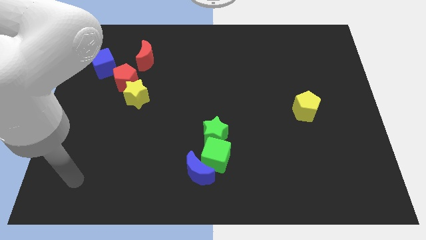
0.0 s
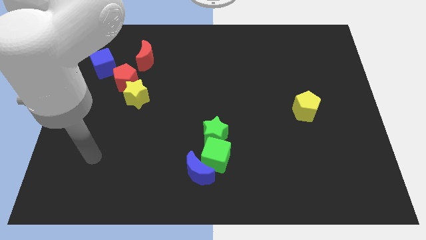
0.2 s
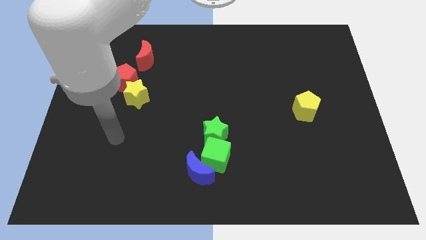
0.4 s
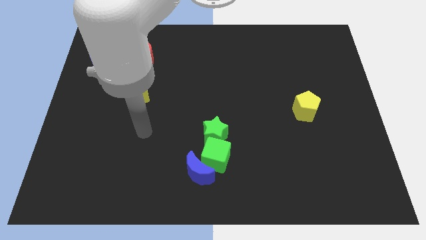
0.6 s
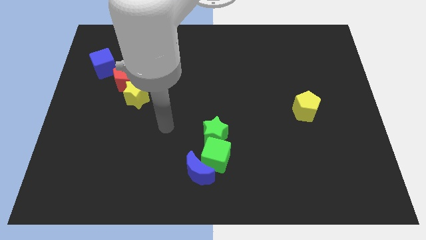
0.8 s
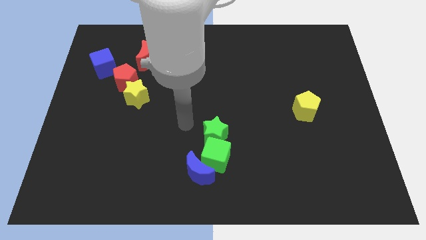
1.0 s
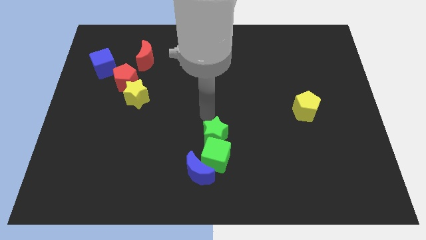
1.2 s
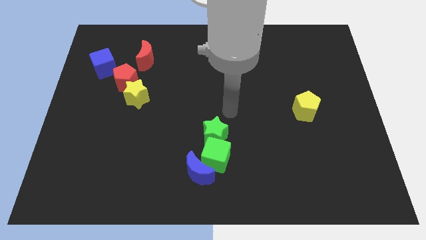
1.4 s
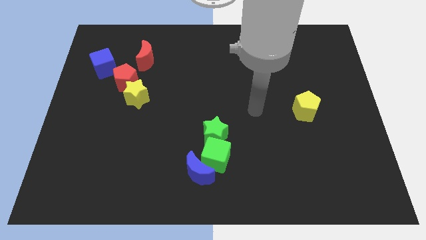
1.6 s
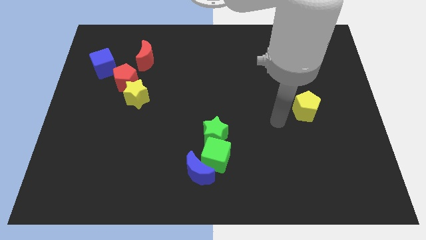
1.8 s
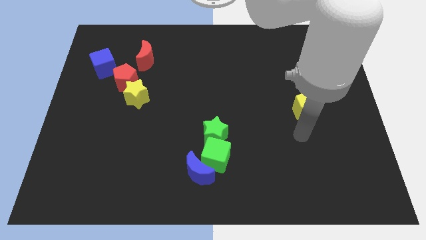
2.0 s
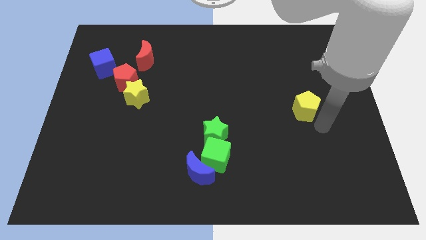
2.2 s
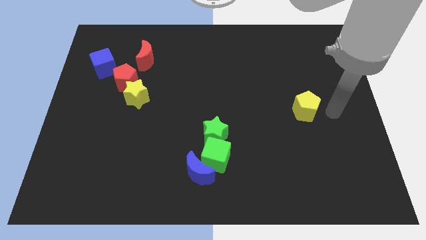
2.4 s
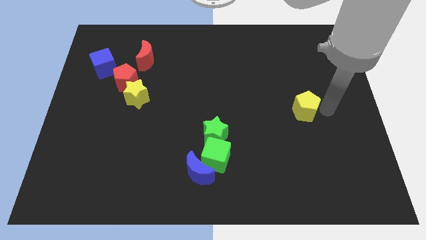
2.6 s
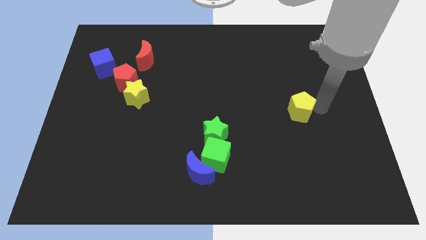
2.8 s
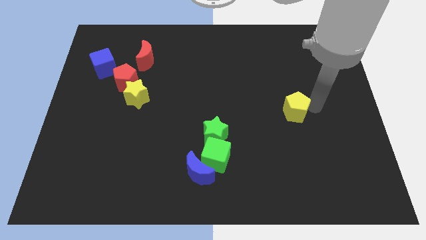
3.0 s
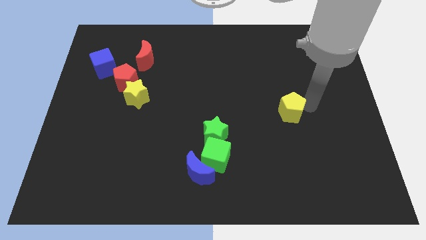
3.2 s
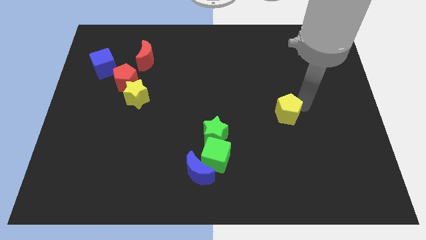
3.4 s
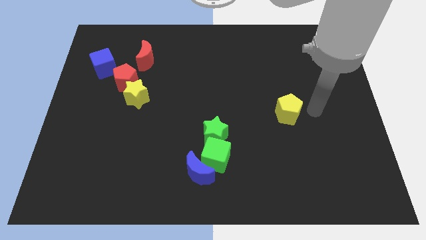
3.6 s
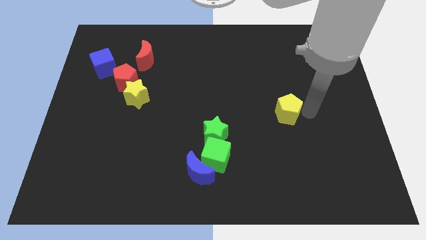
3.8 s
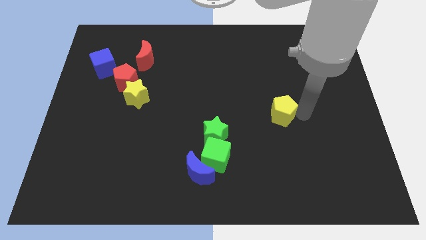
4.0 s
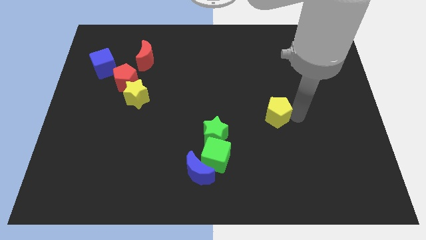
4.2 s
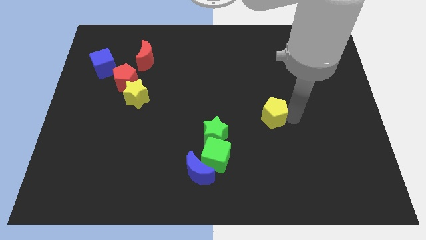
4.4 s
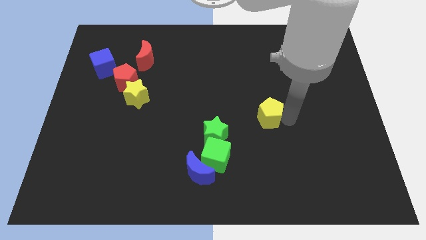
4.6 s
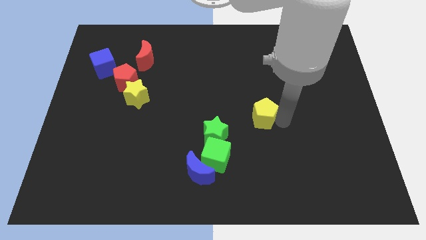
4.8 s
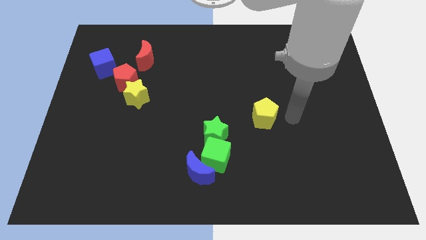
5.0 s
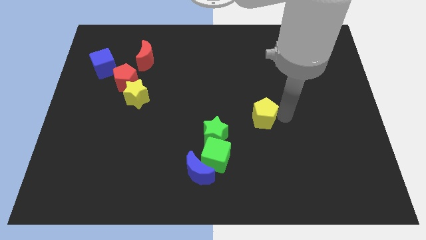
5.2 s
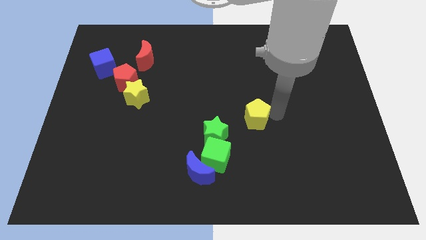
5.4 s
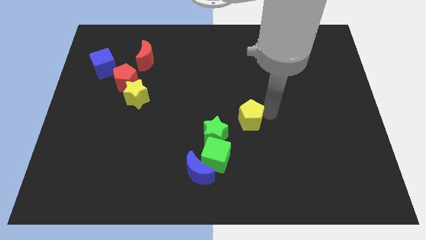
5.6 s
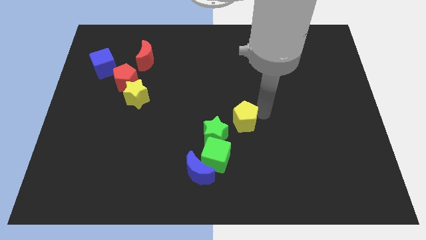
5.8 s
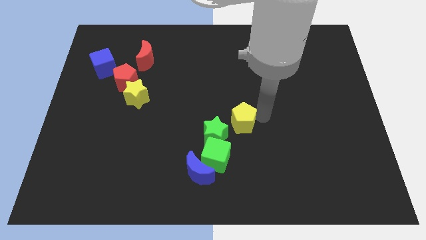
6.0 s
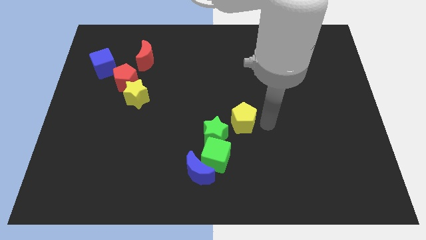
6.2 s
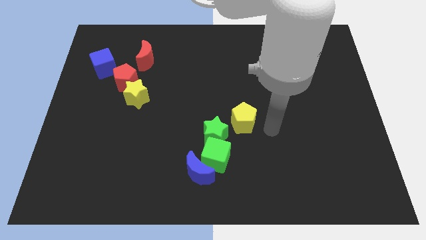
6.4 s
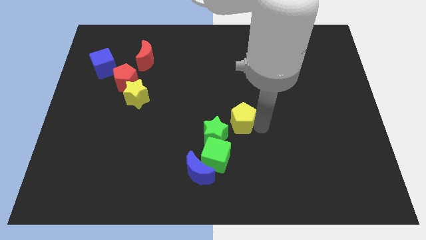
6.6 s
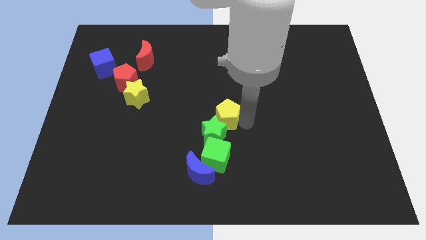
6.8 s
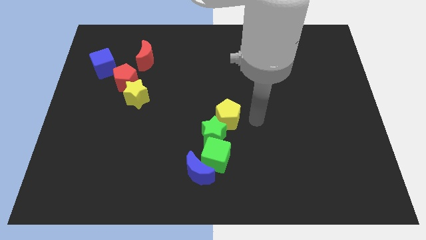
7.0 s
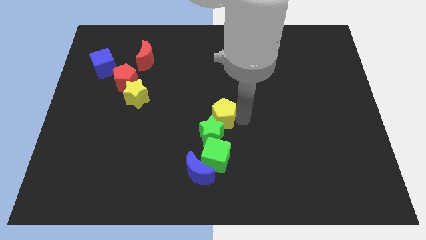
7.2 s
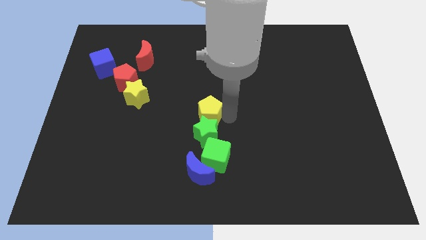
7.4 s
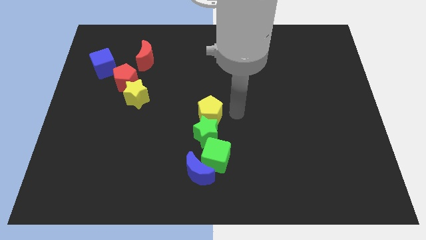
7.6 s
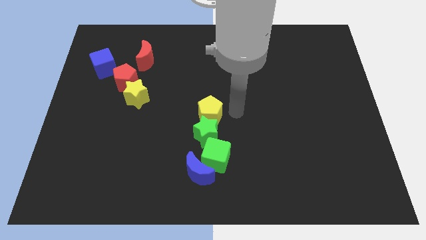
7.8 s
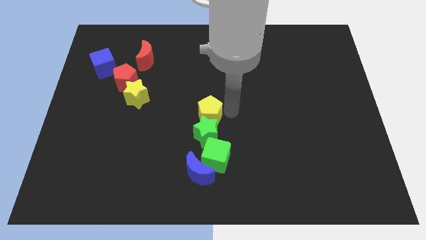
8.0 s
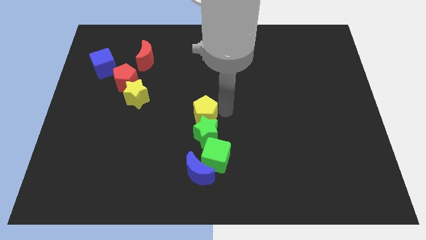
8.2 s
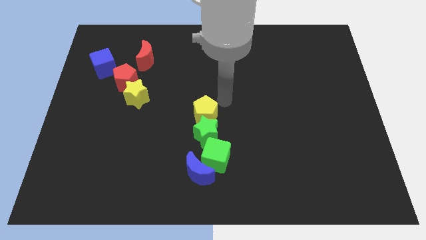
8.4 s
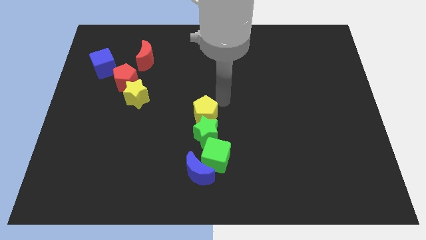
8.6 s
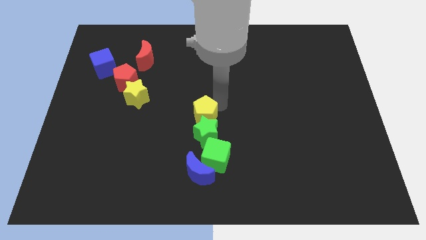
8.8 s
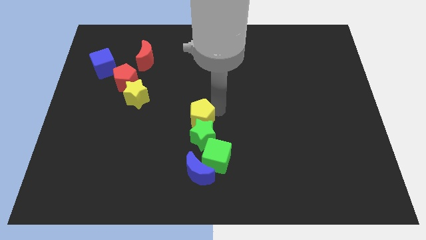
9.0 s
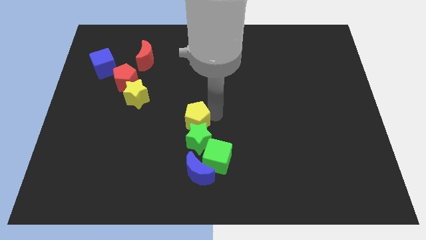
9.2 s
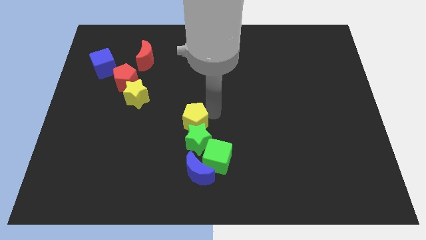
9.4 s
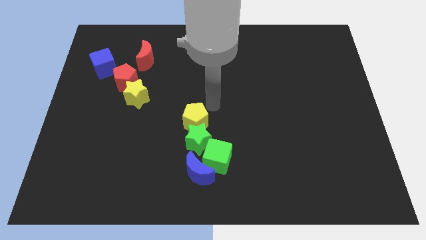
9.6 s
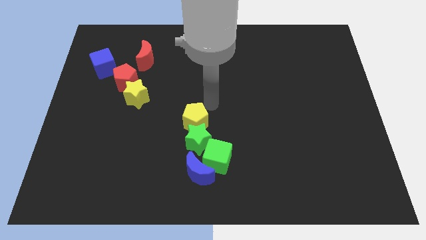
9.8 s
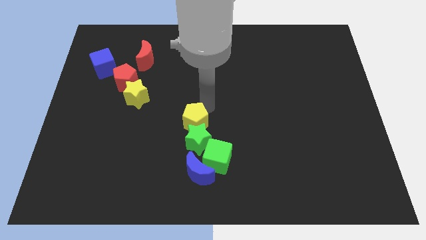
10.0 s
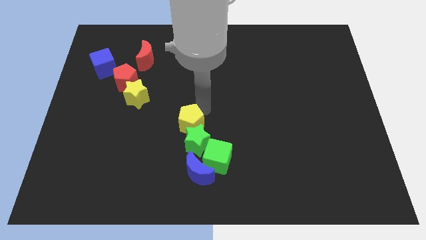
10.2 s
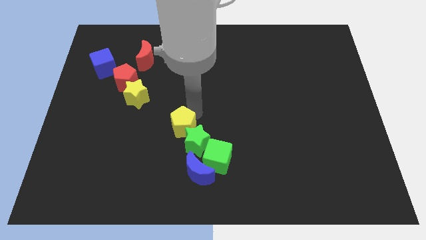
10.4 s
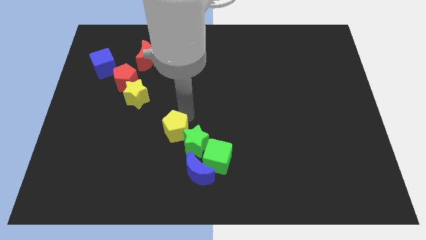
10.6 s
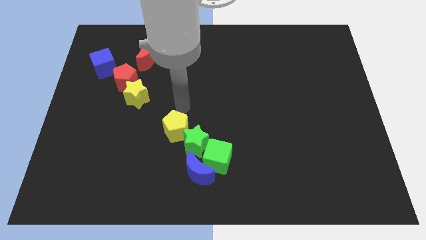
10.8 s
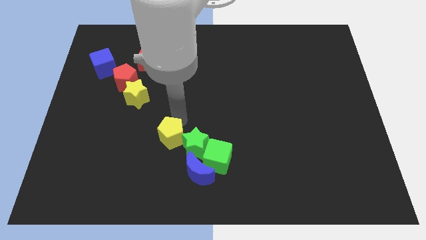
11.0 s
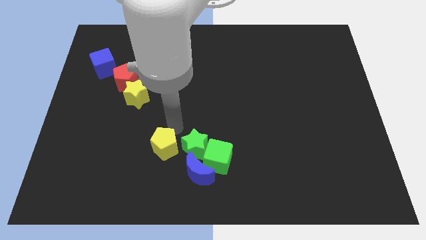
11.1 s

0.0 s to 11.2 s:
move the yellow pentagon diagonally down and to the left of the green star

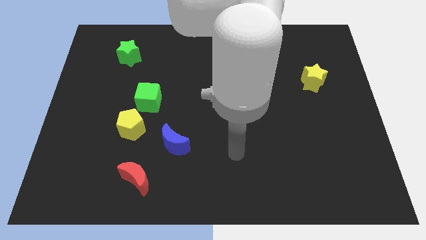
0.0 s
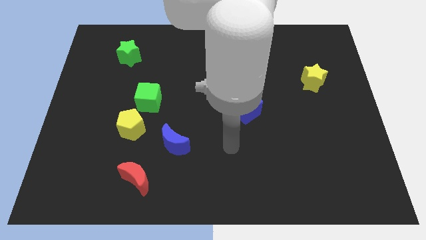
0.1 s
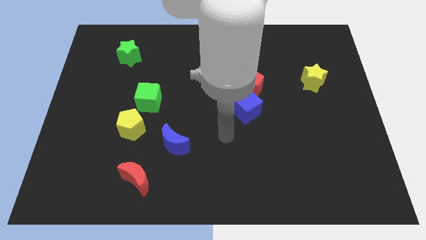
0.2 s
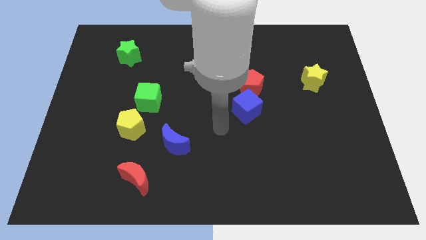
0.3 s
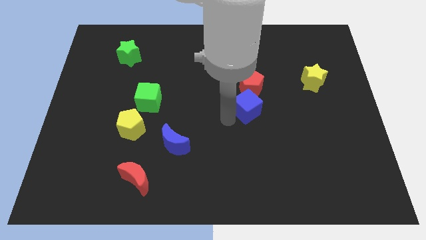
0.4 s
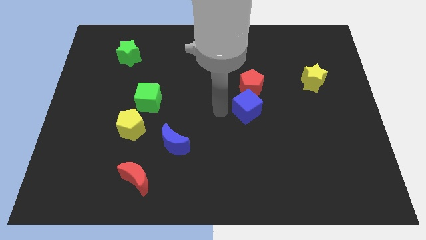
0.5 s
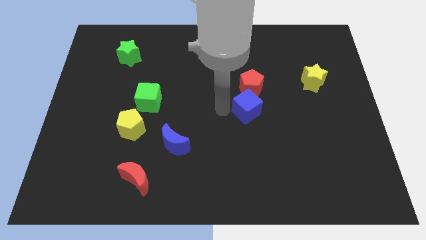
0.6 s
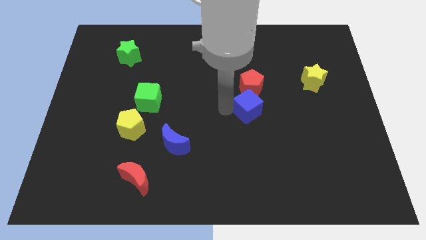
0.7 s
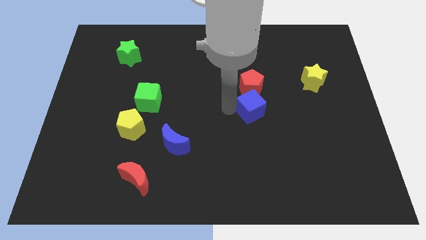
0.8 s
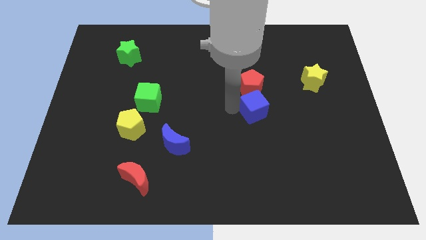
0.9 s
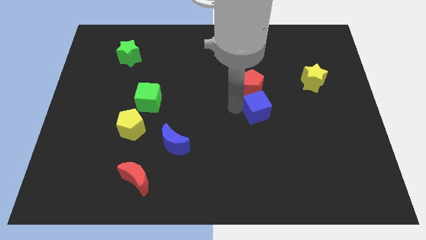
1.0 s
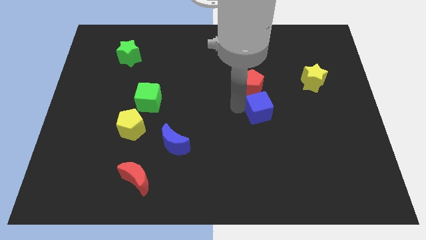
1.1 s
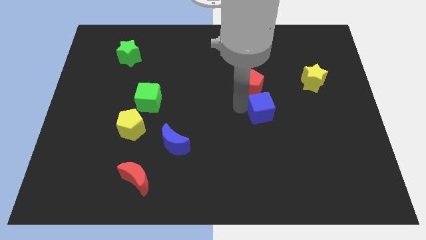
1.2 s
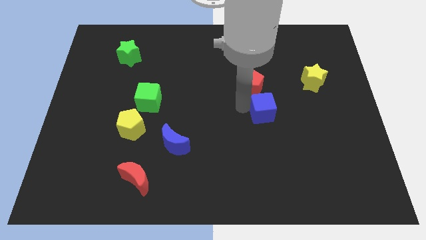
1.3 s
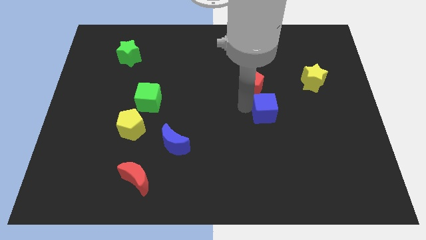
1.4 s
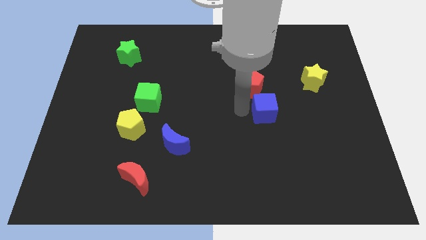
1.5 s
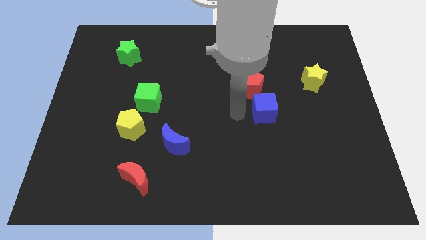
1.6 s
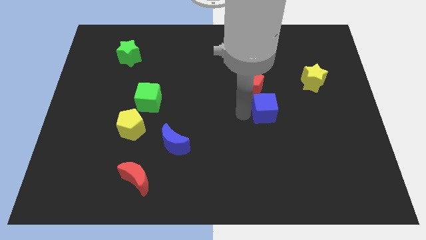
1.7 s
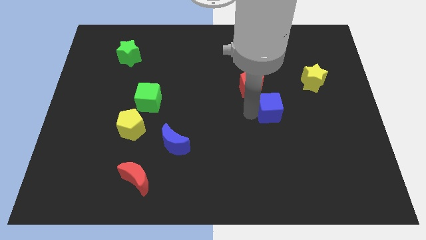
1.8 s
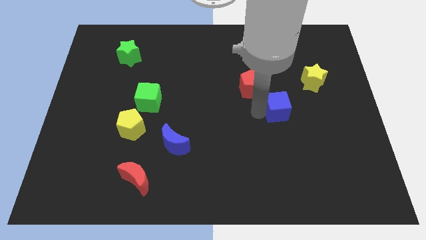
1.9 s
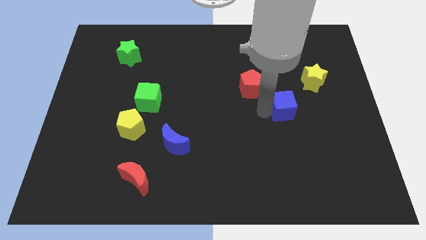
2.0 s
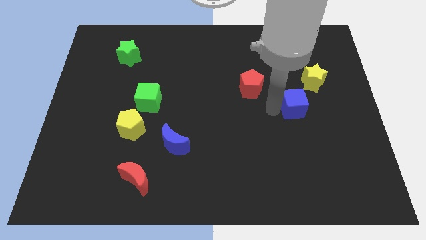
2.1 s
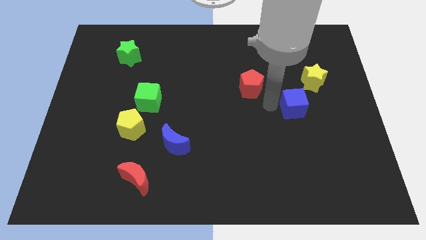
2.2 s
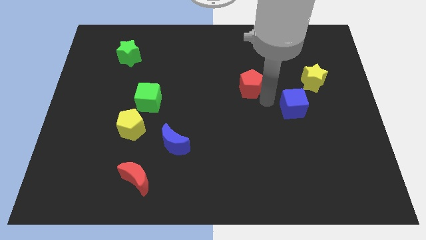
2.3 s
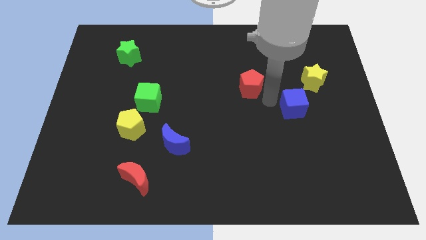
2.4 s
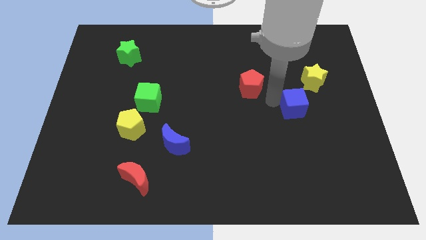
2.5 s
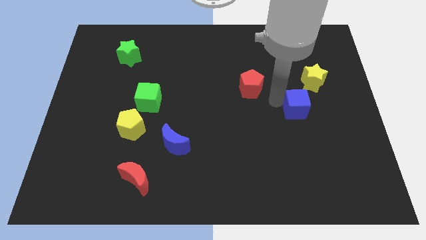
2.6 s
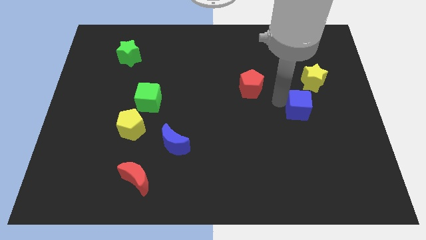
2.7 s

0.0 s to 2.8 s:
move the blue cube to the bottom of the yellow star
